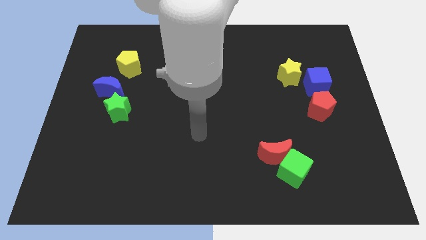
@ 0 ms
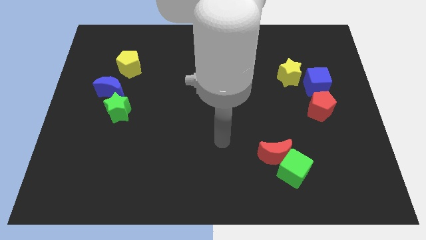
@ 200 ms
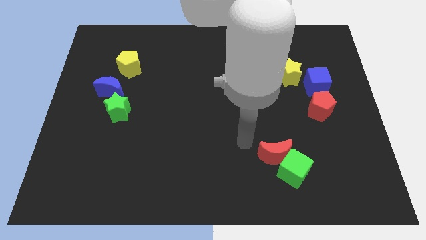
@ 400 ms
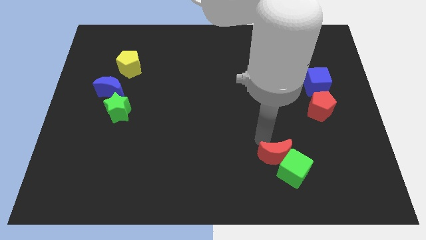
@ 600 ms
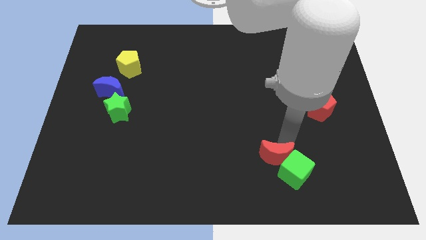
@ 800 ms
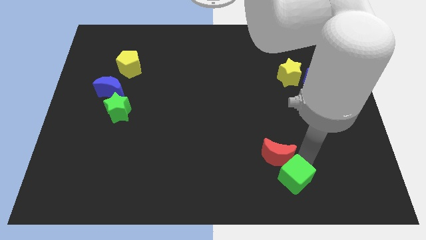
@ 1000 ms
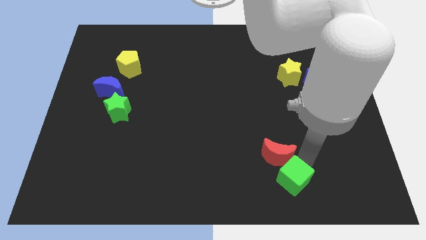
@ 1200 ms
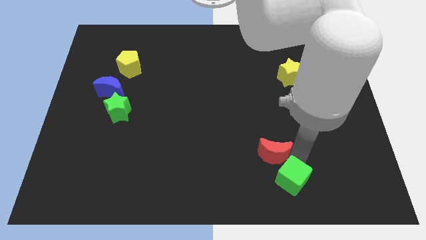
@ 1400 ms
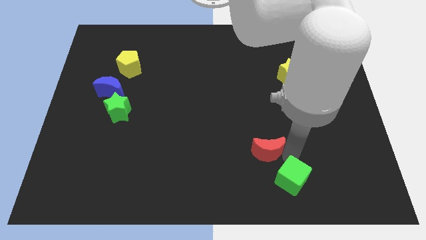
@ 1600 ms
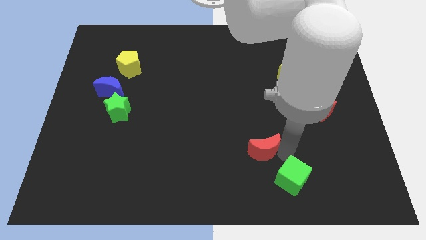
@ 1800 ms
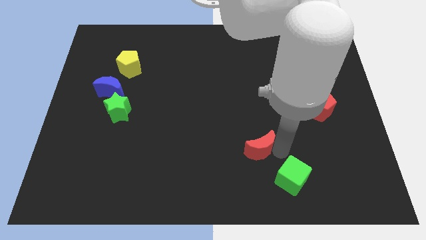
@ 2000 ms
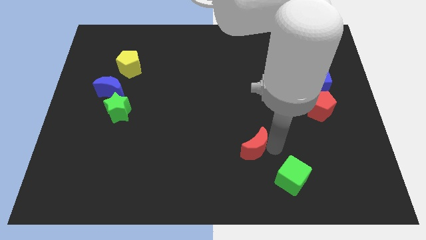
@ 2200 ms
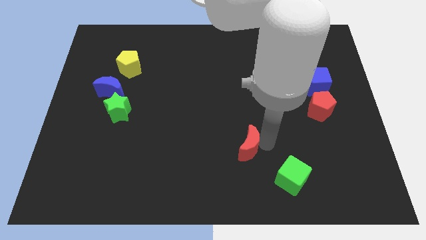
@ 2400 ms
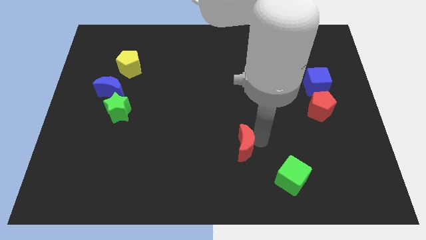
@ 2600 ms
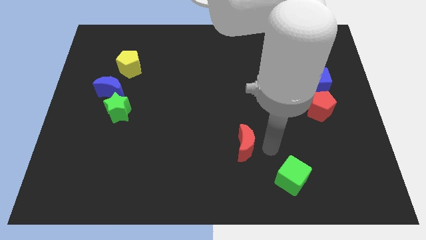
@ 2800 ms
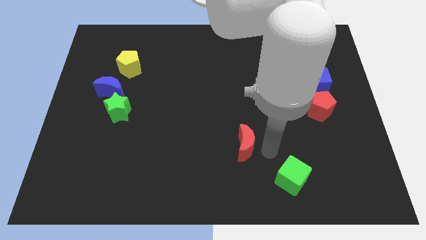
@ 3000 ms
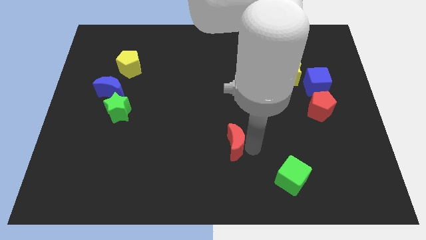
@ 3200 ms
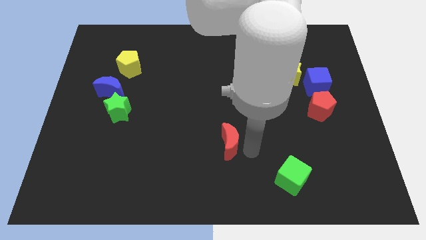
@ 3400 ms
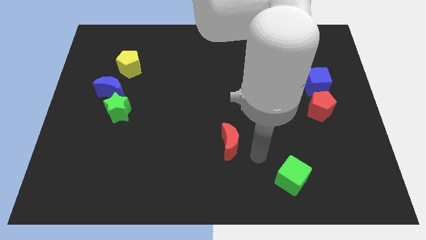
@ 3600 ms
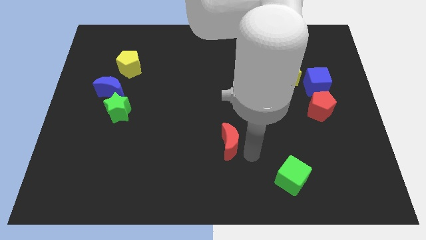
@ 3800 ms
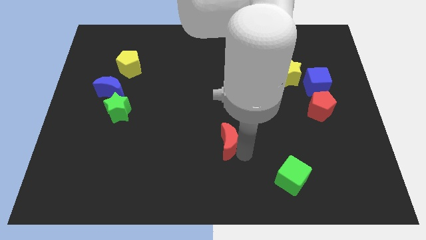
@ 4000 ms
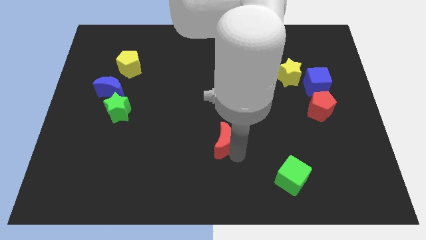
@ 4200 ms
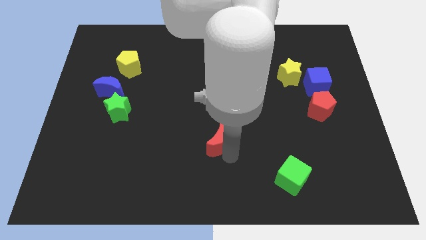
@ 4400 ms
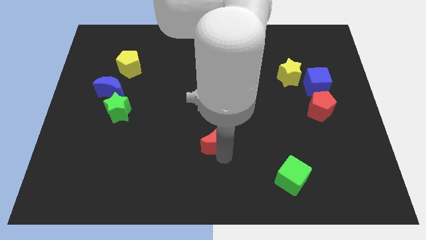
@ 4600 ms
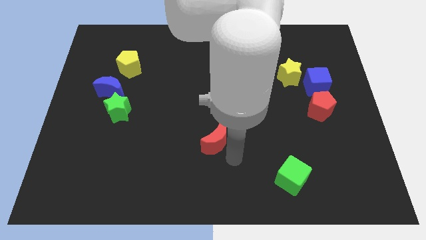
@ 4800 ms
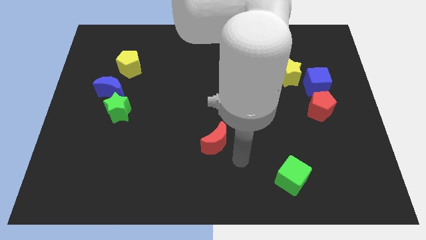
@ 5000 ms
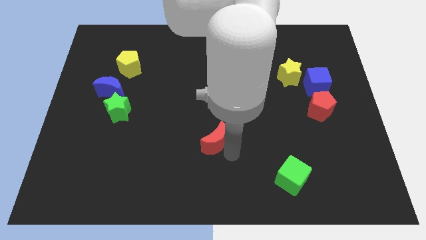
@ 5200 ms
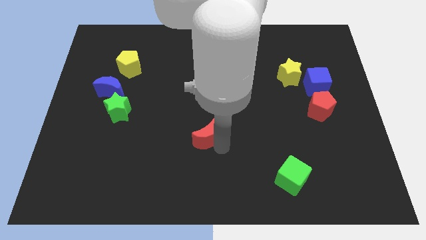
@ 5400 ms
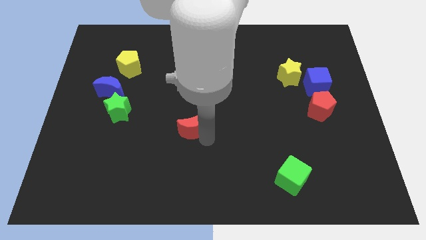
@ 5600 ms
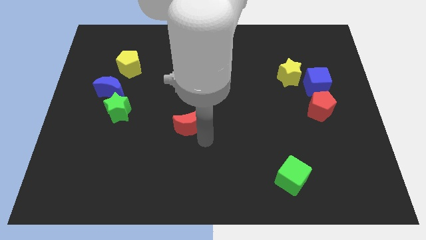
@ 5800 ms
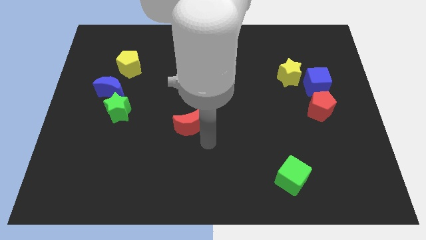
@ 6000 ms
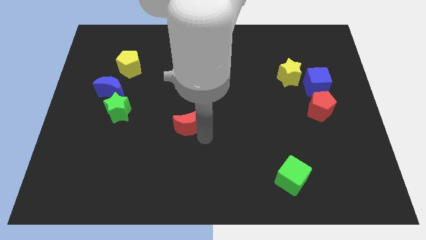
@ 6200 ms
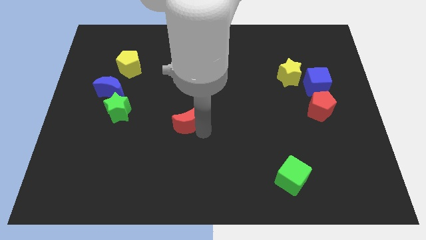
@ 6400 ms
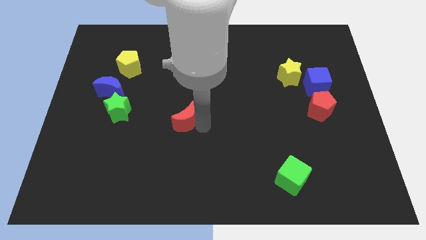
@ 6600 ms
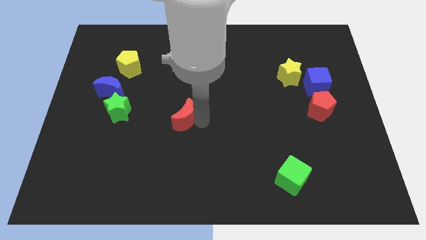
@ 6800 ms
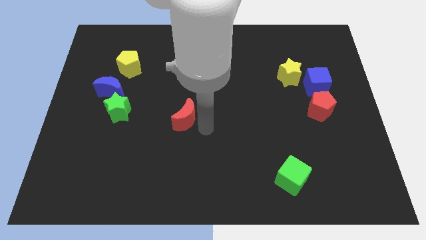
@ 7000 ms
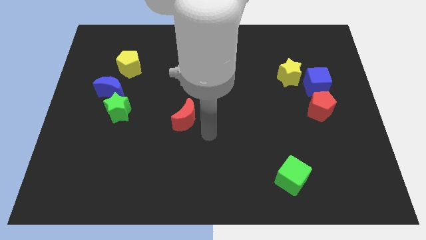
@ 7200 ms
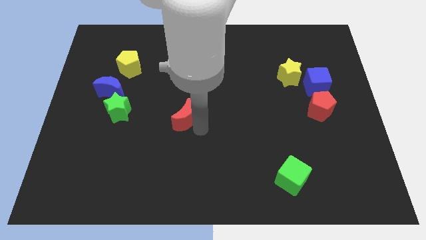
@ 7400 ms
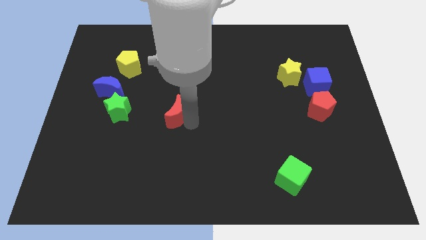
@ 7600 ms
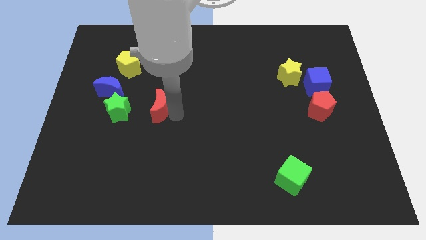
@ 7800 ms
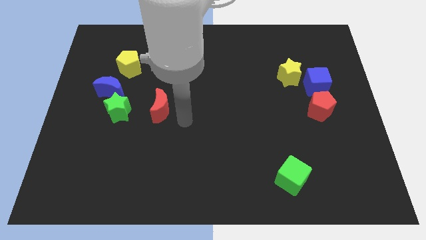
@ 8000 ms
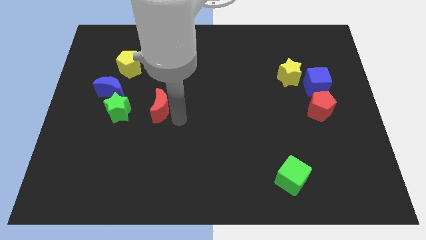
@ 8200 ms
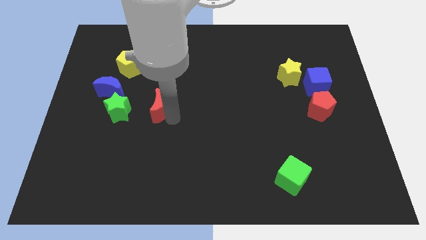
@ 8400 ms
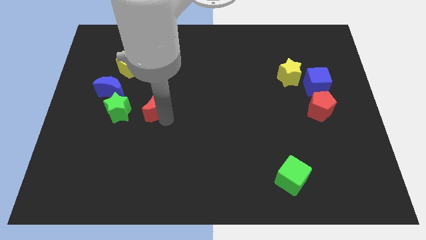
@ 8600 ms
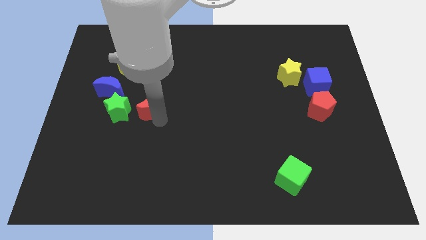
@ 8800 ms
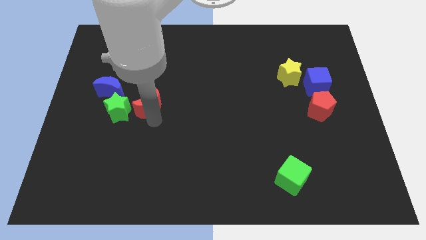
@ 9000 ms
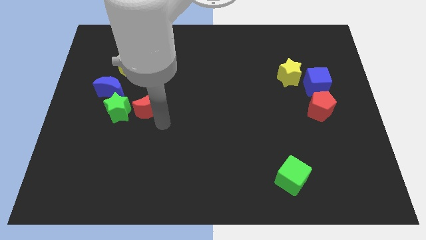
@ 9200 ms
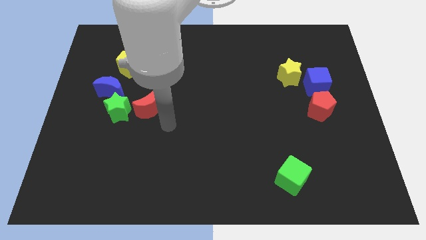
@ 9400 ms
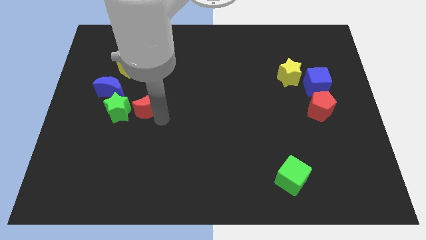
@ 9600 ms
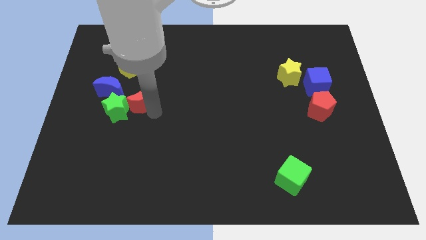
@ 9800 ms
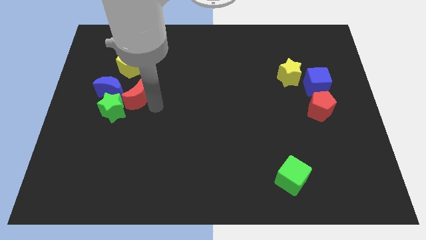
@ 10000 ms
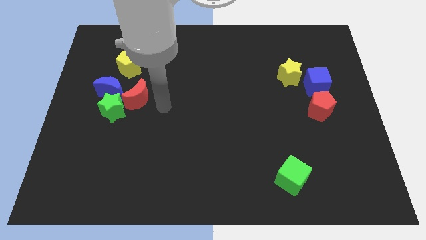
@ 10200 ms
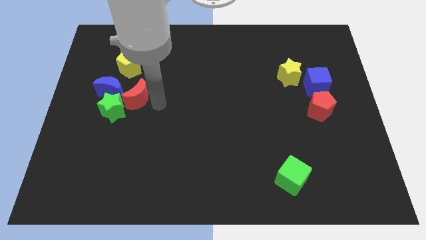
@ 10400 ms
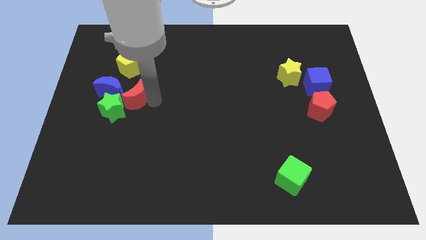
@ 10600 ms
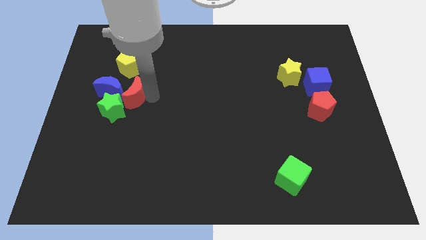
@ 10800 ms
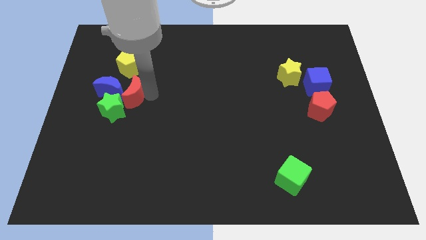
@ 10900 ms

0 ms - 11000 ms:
push the red moon close to the blue moon

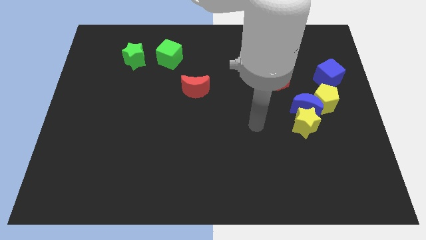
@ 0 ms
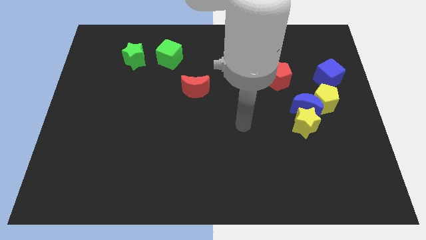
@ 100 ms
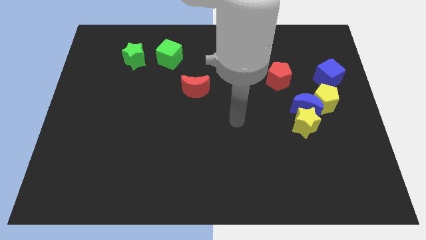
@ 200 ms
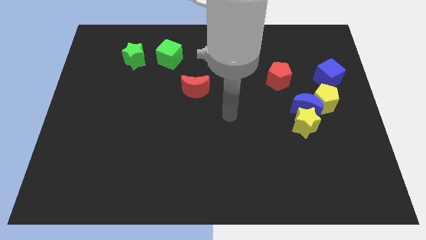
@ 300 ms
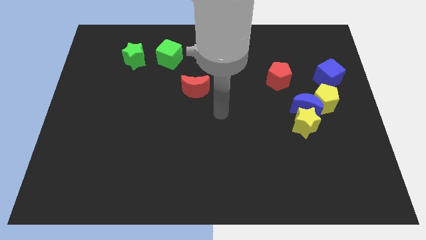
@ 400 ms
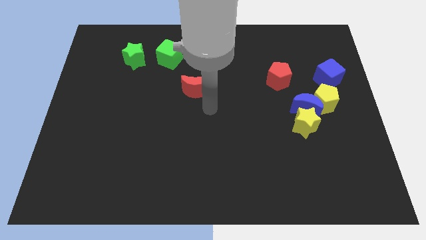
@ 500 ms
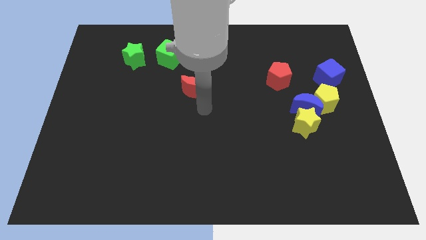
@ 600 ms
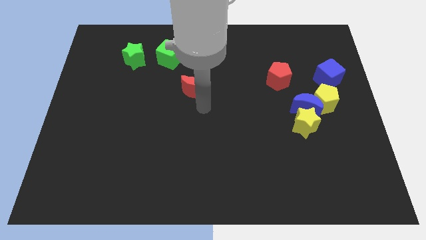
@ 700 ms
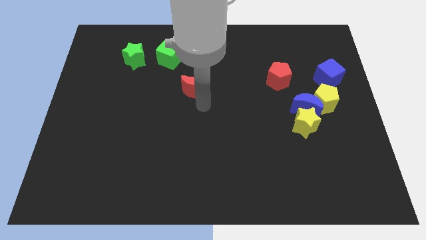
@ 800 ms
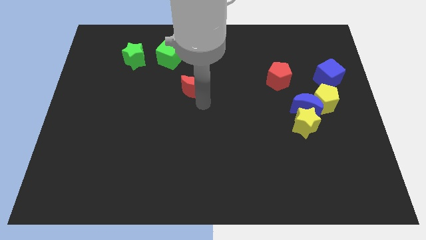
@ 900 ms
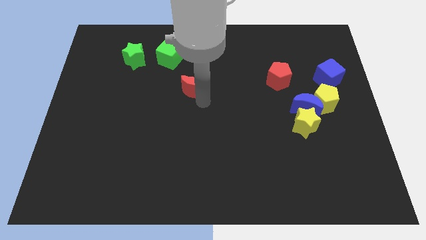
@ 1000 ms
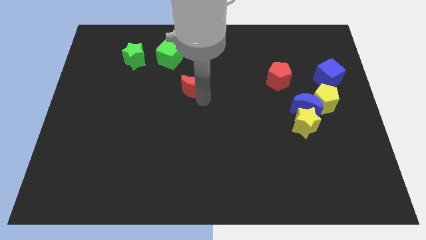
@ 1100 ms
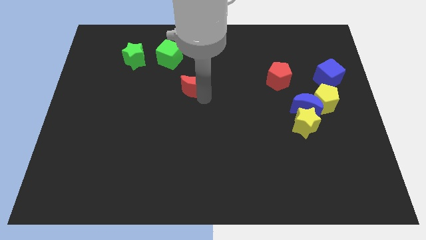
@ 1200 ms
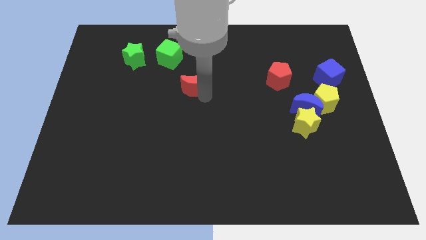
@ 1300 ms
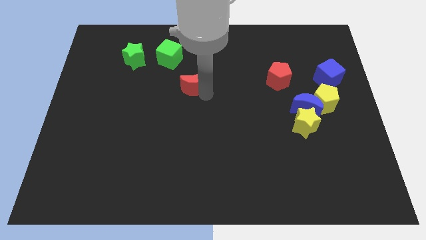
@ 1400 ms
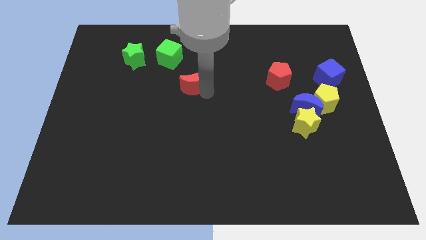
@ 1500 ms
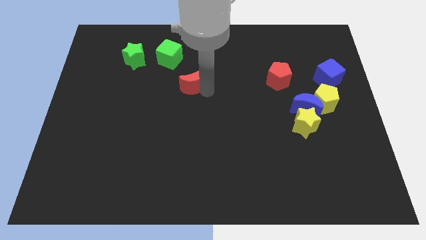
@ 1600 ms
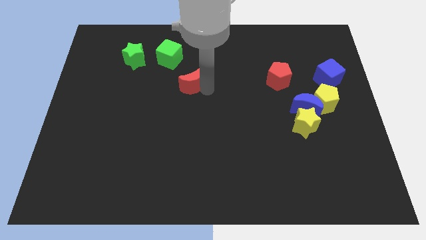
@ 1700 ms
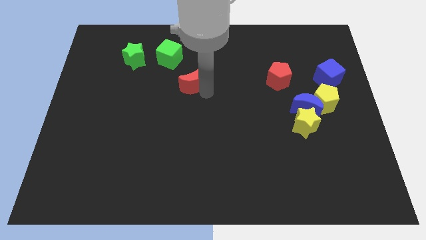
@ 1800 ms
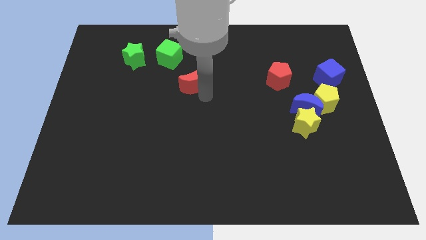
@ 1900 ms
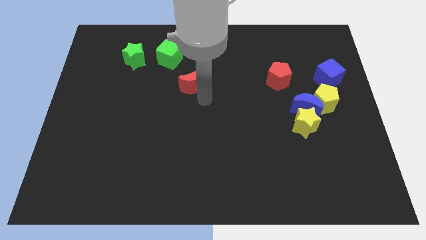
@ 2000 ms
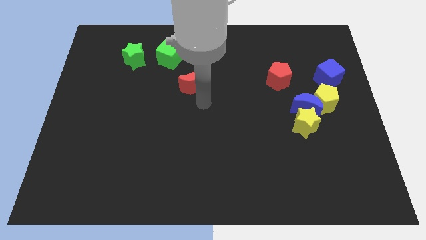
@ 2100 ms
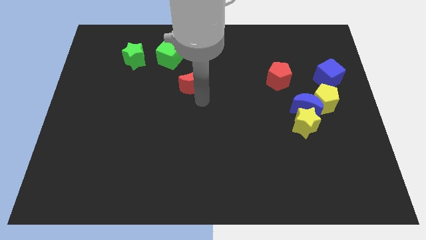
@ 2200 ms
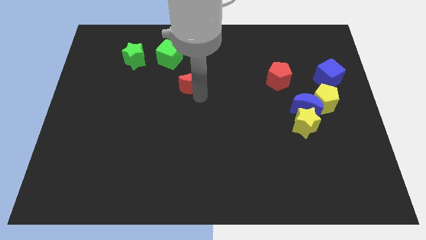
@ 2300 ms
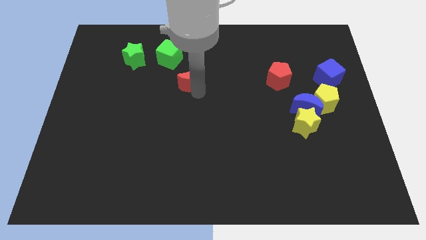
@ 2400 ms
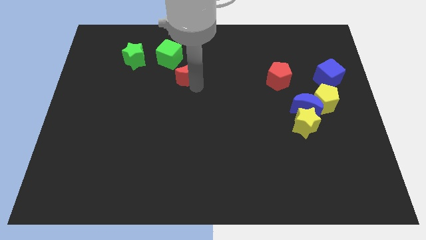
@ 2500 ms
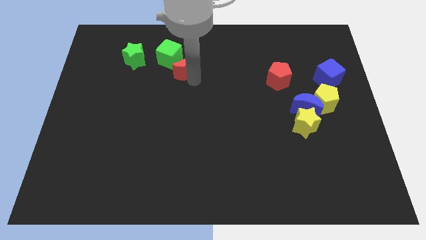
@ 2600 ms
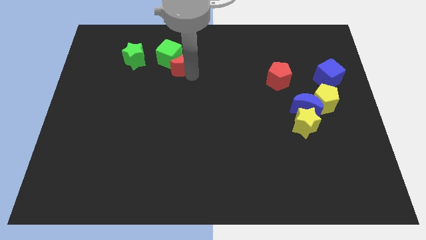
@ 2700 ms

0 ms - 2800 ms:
push the red moon towards the green cube
